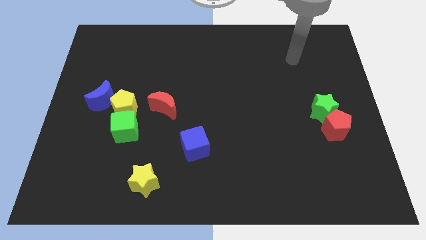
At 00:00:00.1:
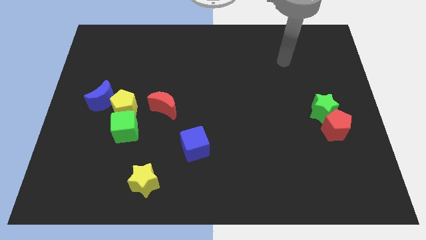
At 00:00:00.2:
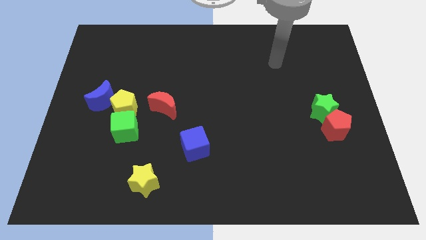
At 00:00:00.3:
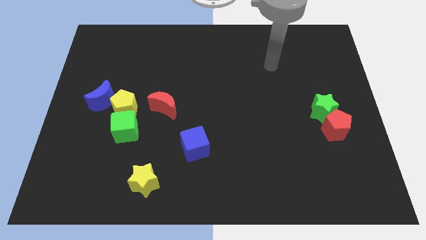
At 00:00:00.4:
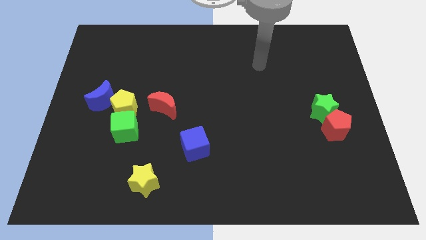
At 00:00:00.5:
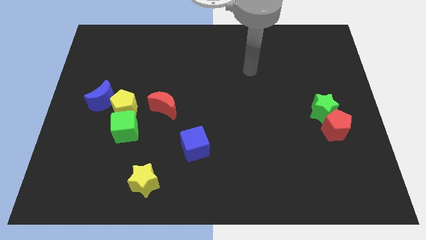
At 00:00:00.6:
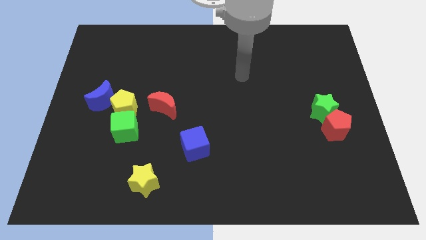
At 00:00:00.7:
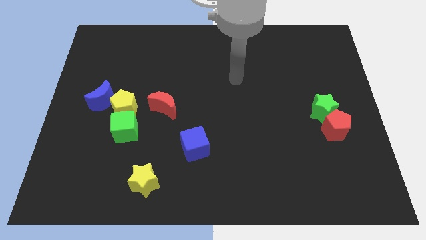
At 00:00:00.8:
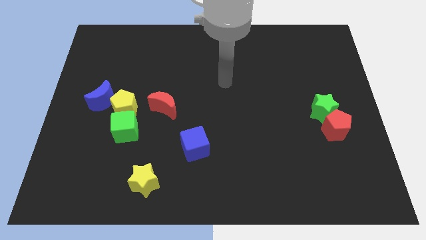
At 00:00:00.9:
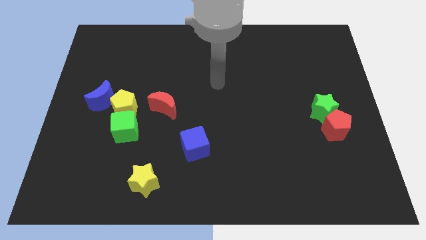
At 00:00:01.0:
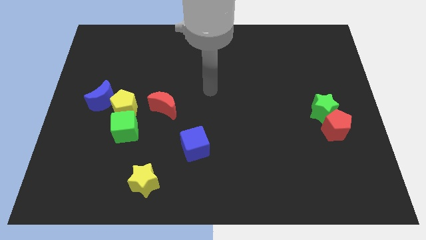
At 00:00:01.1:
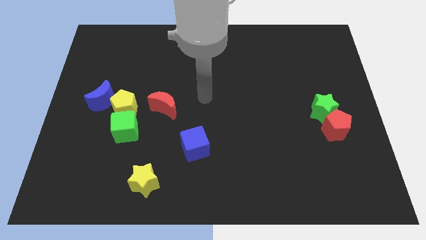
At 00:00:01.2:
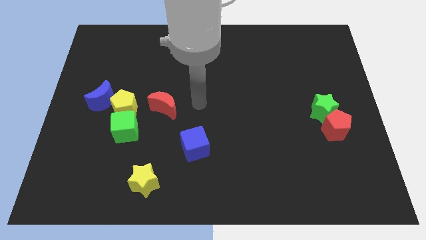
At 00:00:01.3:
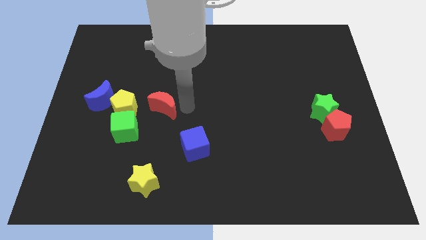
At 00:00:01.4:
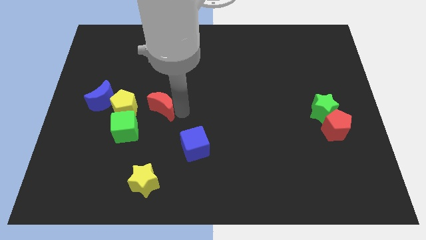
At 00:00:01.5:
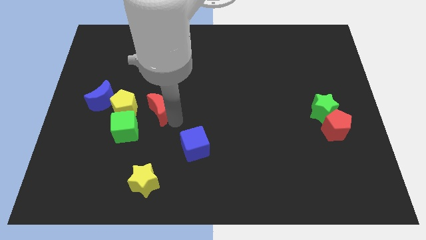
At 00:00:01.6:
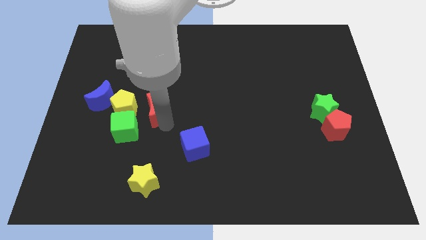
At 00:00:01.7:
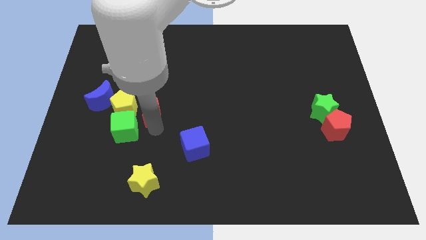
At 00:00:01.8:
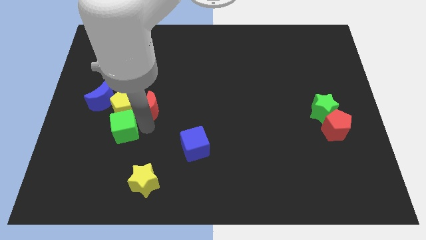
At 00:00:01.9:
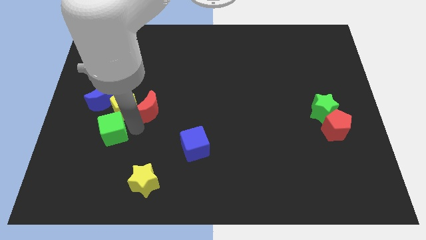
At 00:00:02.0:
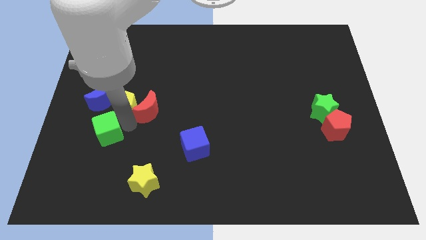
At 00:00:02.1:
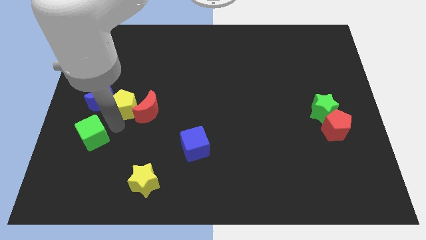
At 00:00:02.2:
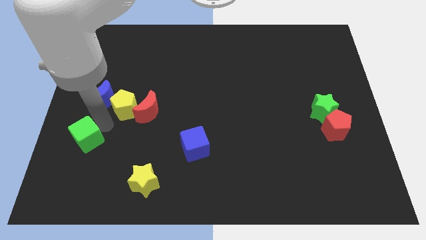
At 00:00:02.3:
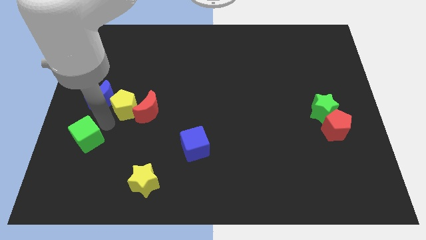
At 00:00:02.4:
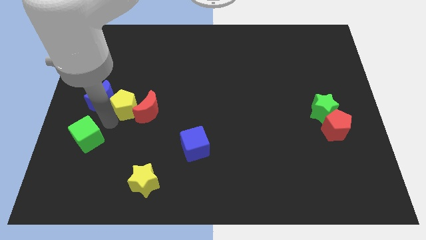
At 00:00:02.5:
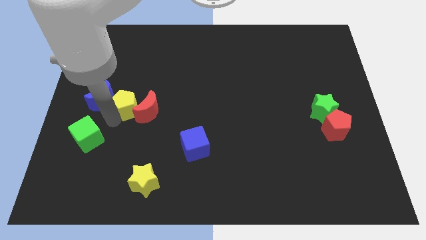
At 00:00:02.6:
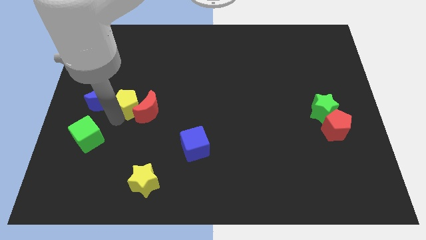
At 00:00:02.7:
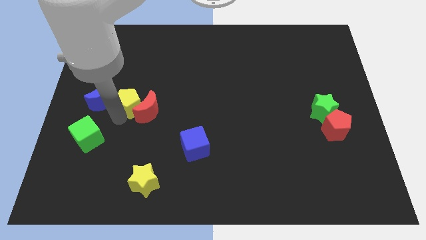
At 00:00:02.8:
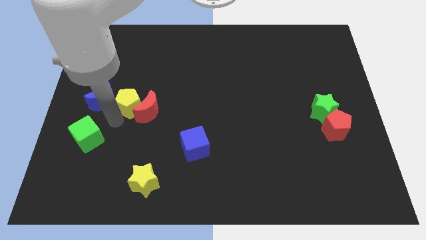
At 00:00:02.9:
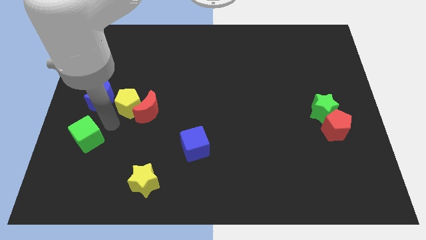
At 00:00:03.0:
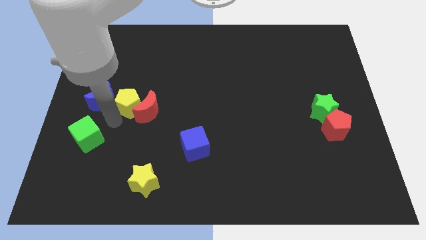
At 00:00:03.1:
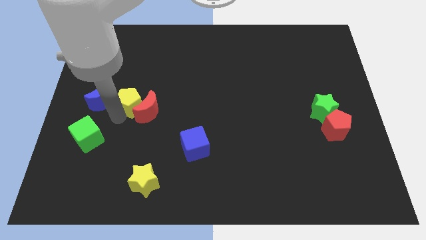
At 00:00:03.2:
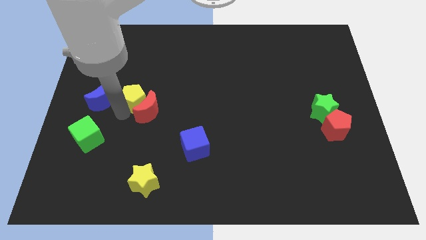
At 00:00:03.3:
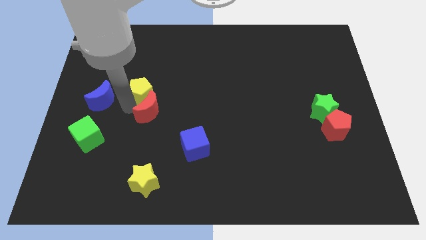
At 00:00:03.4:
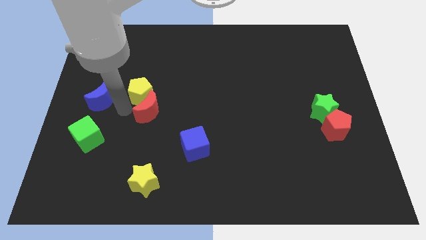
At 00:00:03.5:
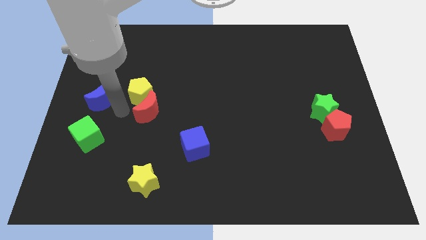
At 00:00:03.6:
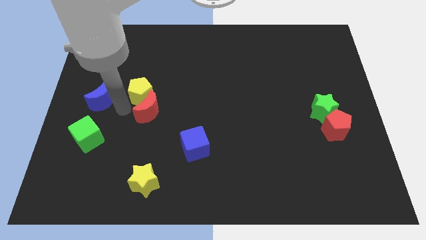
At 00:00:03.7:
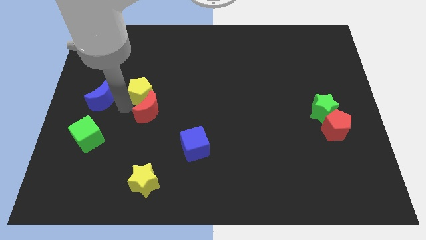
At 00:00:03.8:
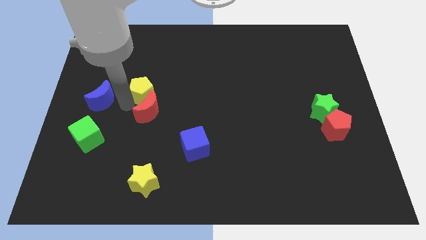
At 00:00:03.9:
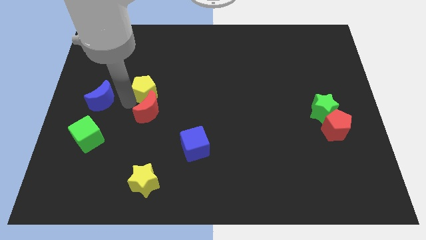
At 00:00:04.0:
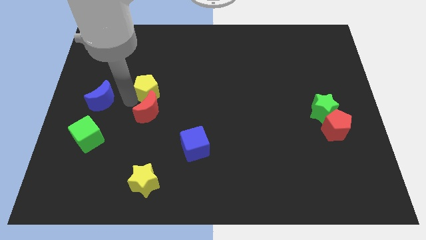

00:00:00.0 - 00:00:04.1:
move the yellow pentagon somewhat up and then right

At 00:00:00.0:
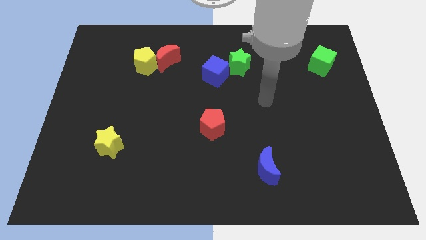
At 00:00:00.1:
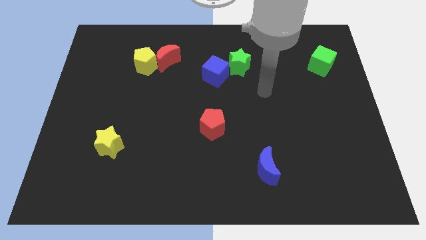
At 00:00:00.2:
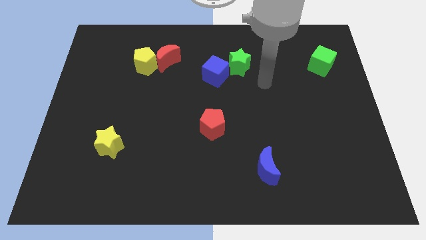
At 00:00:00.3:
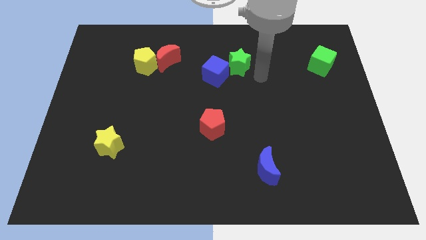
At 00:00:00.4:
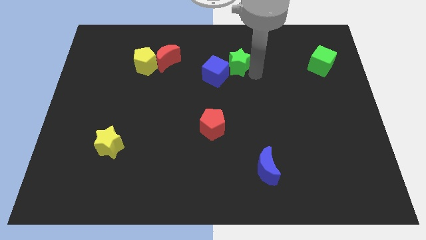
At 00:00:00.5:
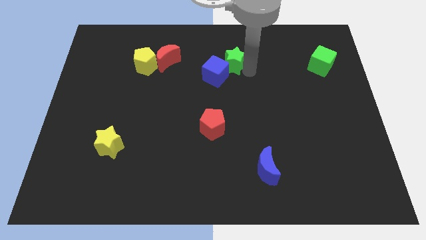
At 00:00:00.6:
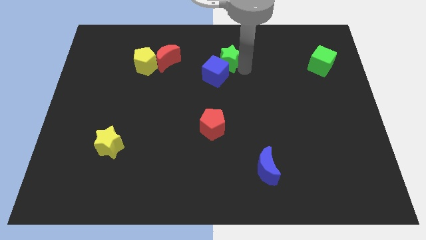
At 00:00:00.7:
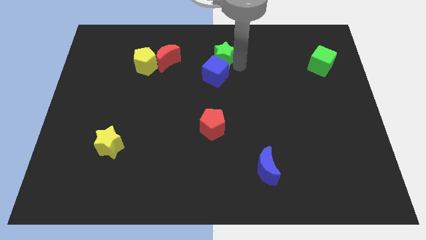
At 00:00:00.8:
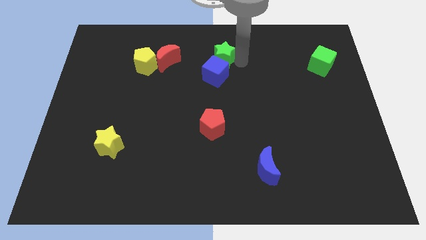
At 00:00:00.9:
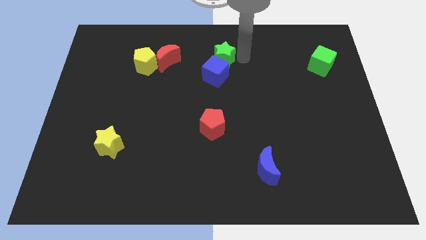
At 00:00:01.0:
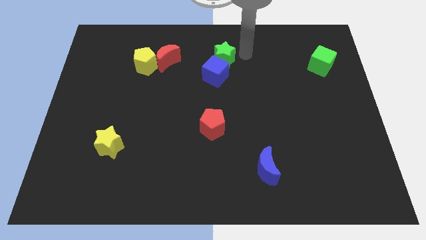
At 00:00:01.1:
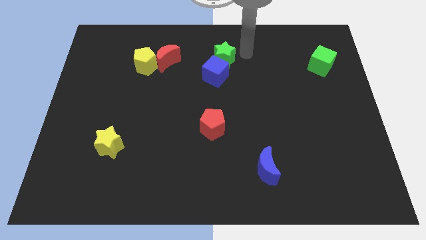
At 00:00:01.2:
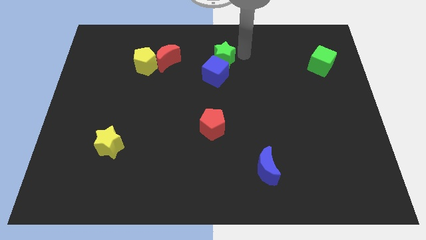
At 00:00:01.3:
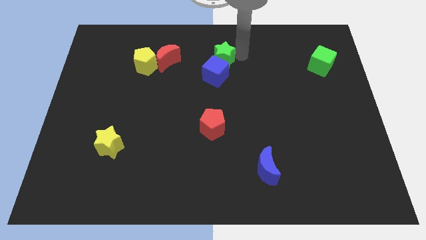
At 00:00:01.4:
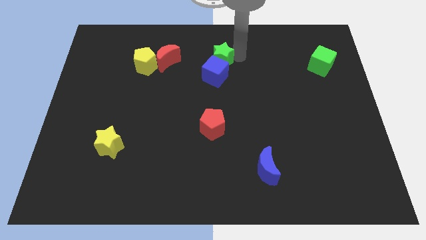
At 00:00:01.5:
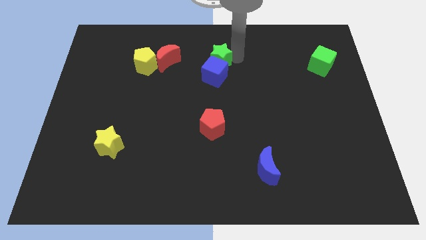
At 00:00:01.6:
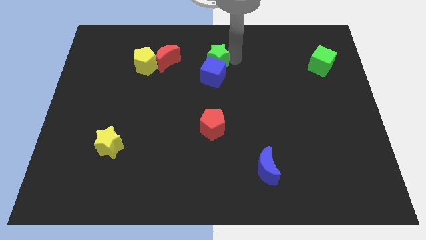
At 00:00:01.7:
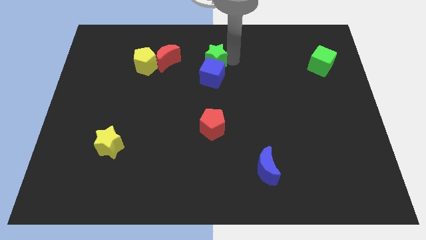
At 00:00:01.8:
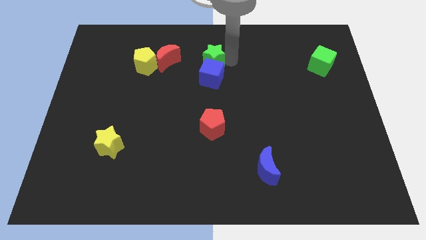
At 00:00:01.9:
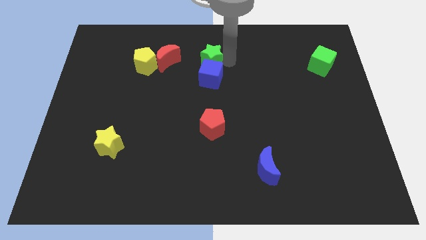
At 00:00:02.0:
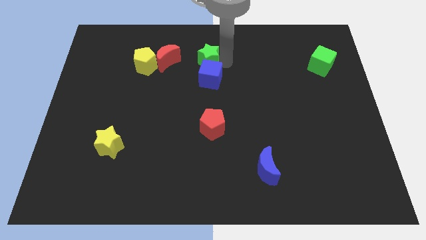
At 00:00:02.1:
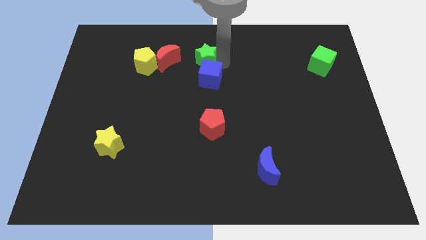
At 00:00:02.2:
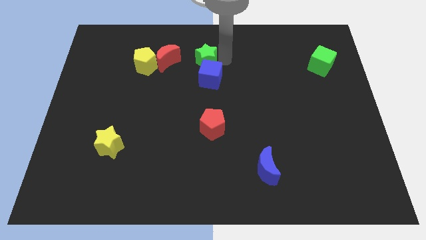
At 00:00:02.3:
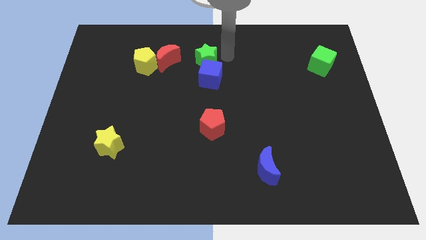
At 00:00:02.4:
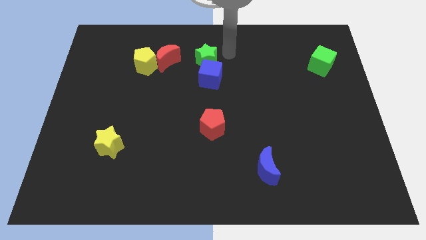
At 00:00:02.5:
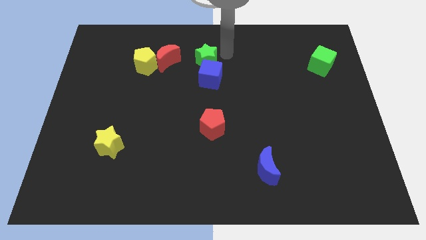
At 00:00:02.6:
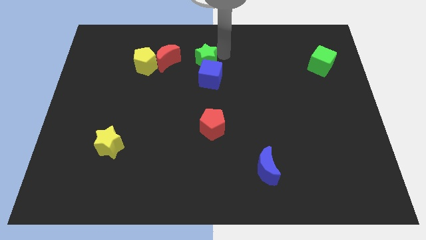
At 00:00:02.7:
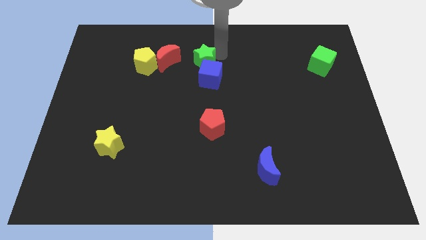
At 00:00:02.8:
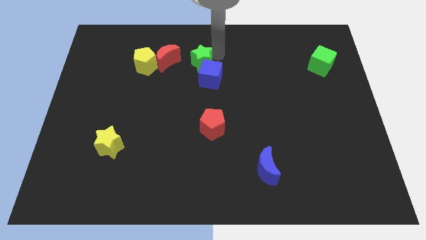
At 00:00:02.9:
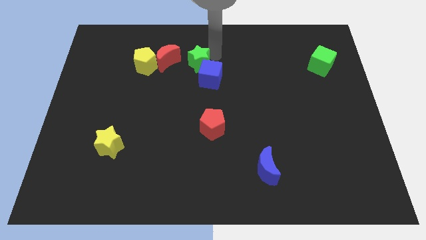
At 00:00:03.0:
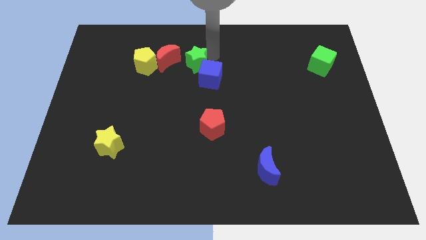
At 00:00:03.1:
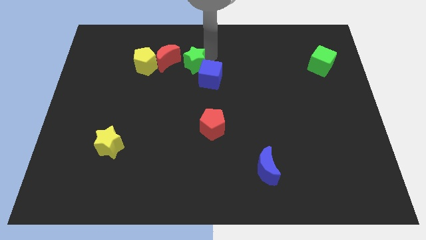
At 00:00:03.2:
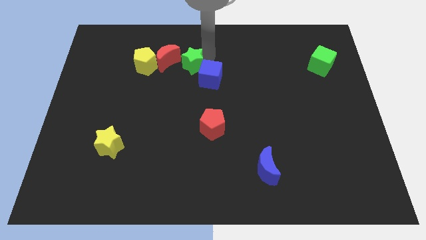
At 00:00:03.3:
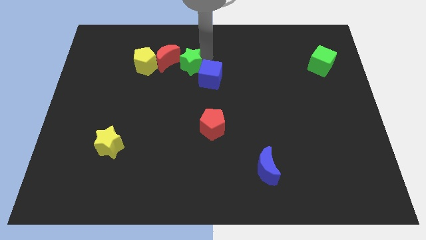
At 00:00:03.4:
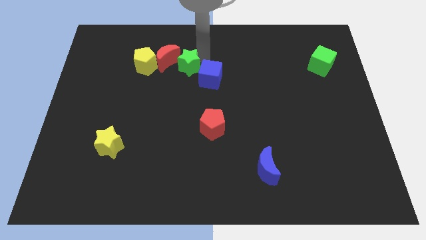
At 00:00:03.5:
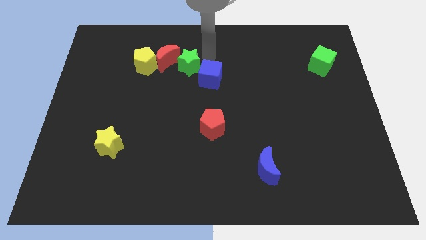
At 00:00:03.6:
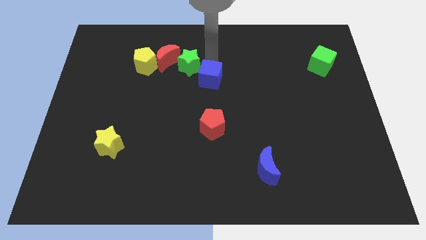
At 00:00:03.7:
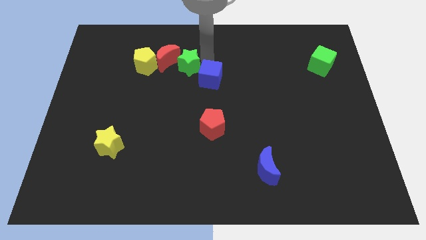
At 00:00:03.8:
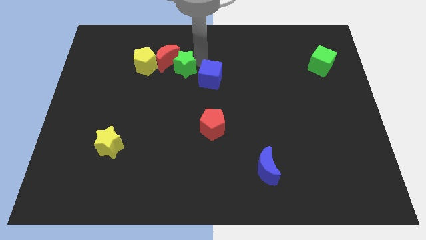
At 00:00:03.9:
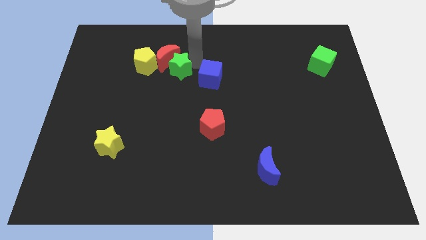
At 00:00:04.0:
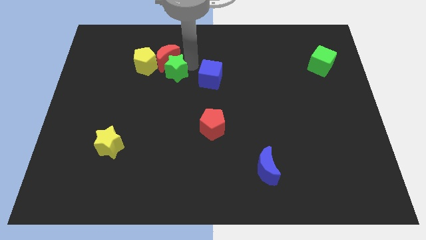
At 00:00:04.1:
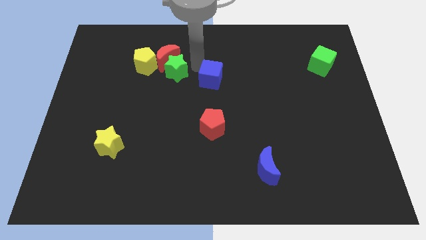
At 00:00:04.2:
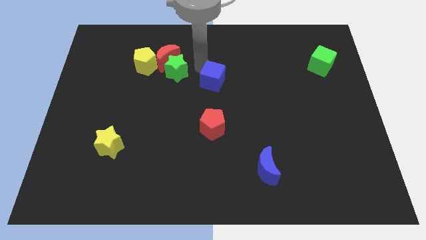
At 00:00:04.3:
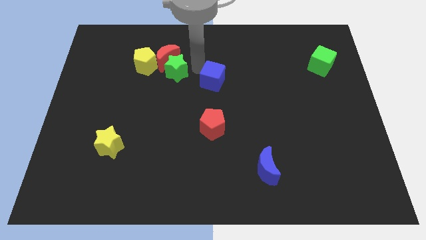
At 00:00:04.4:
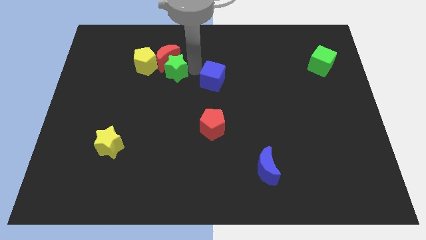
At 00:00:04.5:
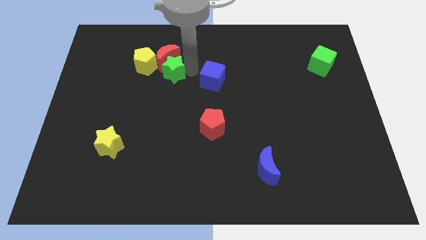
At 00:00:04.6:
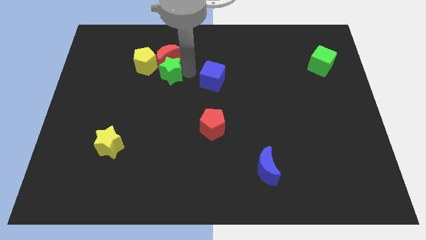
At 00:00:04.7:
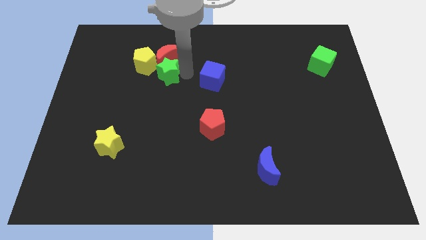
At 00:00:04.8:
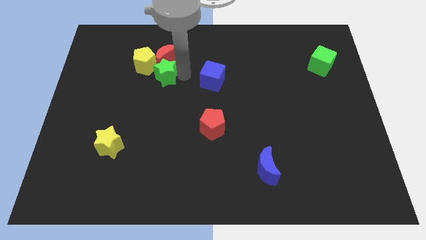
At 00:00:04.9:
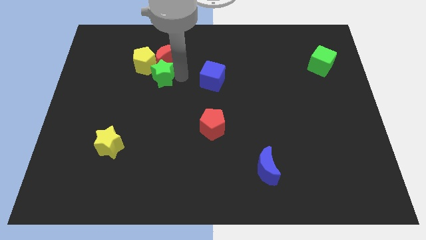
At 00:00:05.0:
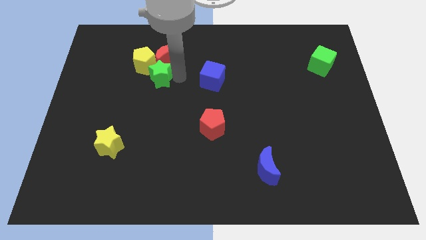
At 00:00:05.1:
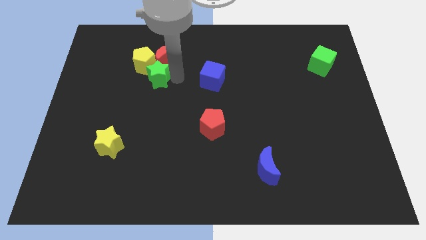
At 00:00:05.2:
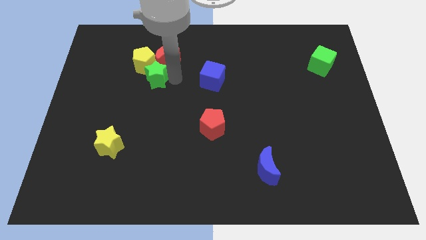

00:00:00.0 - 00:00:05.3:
move the green star left
